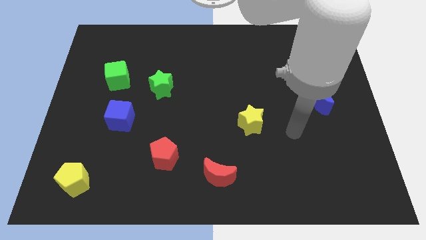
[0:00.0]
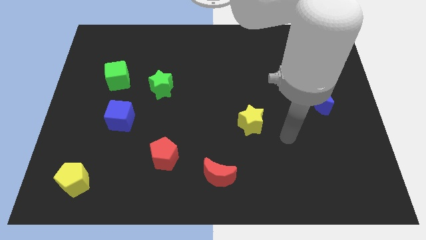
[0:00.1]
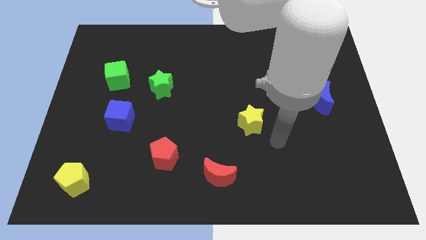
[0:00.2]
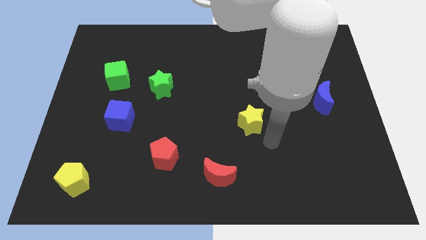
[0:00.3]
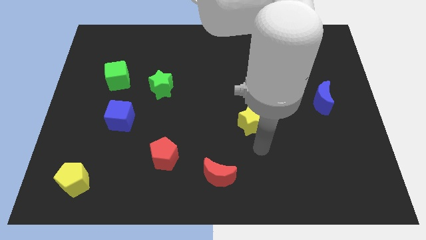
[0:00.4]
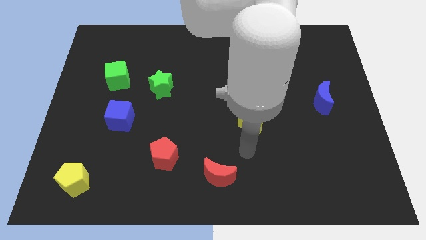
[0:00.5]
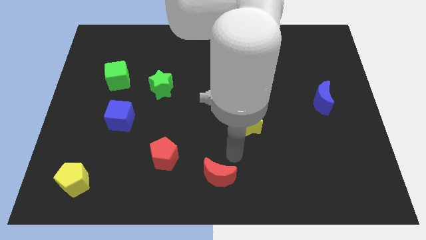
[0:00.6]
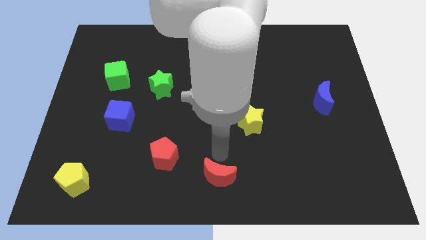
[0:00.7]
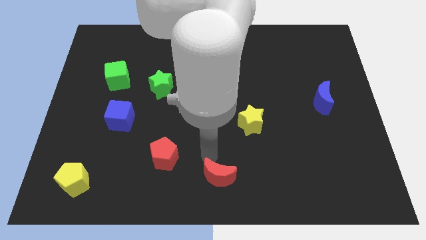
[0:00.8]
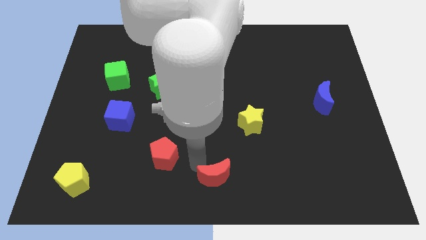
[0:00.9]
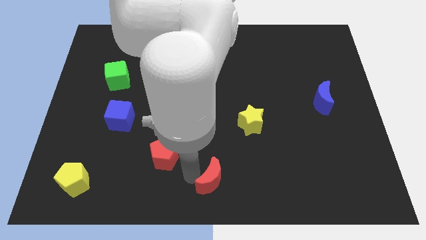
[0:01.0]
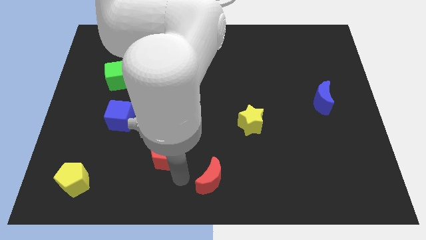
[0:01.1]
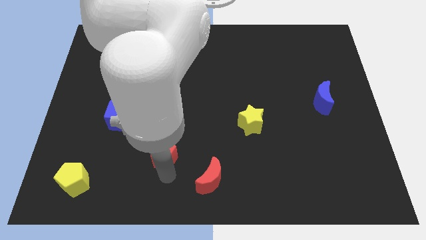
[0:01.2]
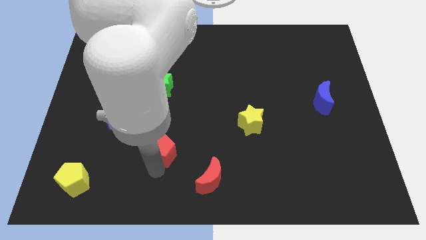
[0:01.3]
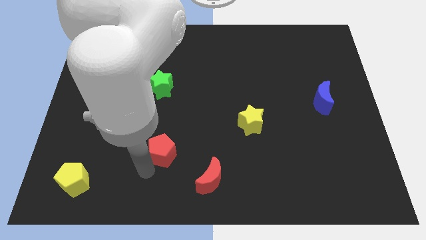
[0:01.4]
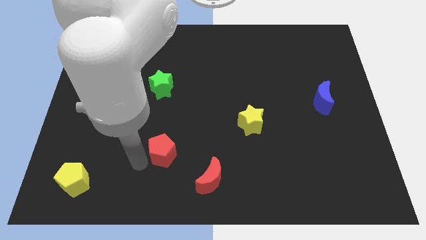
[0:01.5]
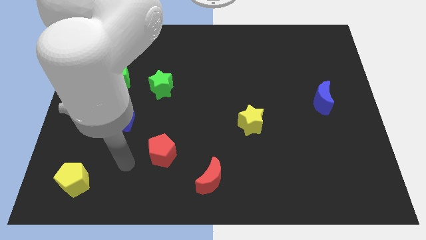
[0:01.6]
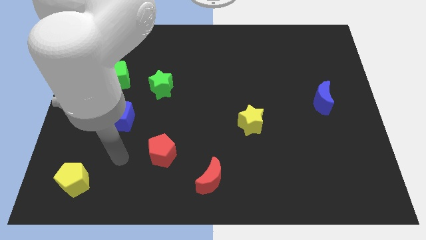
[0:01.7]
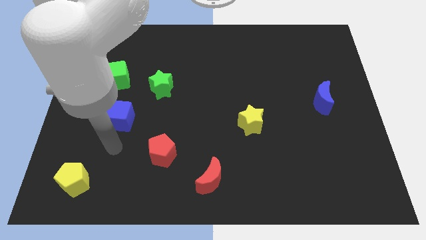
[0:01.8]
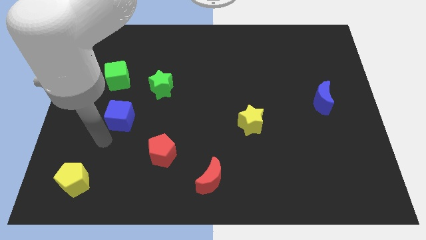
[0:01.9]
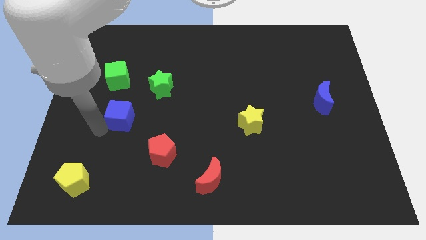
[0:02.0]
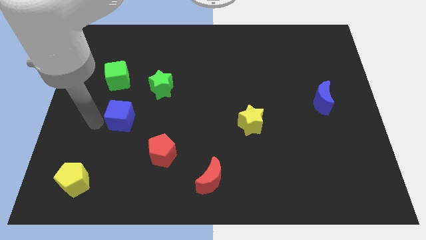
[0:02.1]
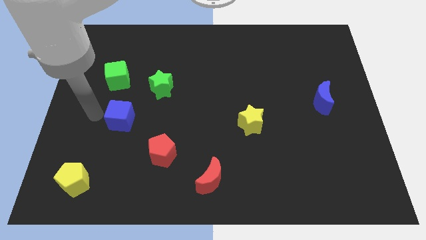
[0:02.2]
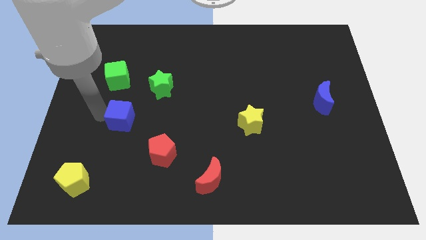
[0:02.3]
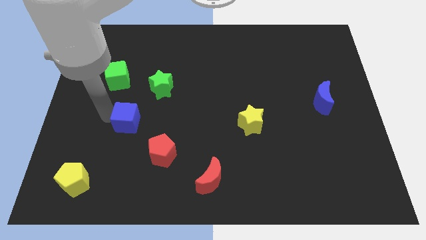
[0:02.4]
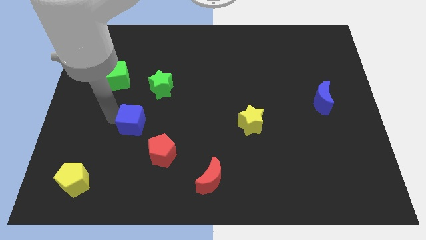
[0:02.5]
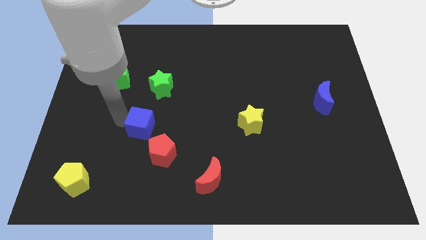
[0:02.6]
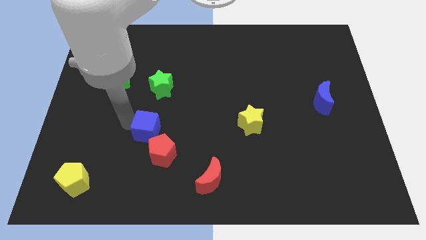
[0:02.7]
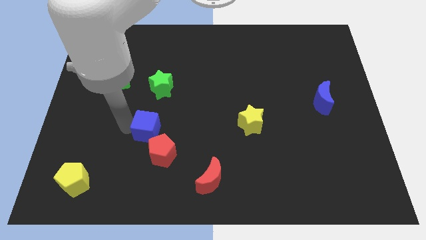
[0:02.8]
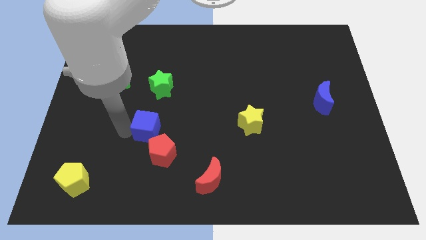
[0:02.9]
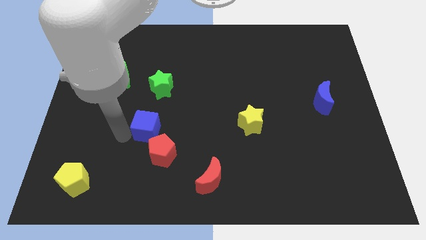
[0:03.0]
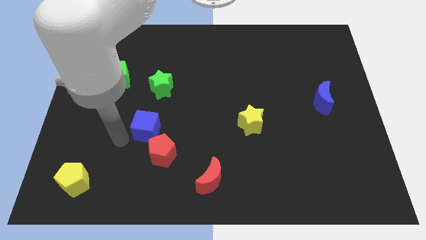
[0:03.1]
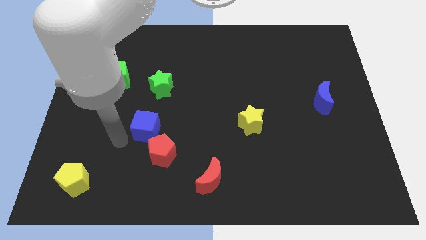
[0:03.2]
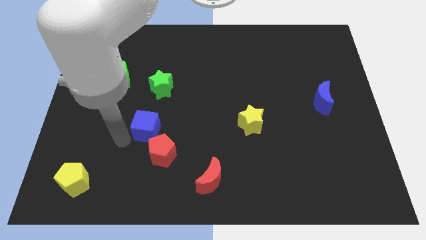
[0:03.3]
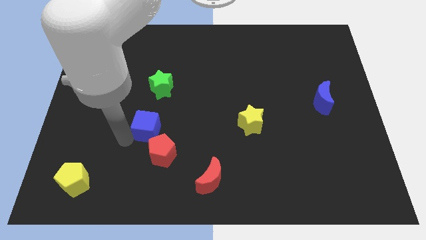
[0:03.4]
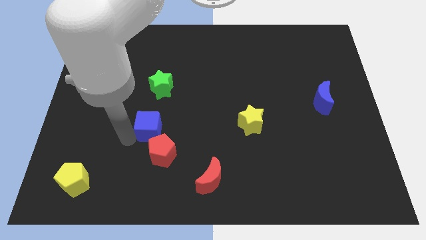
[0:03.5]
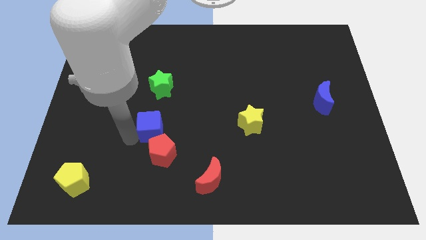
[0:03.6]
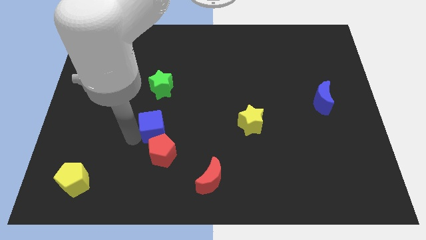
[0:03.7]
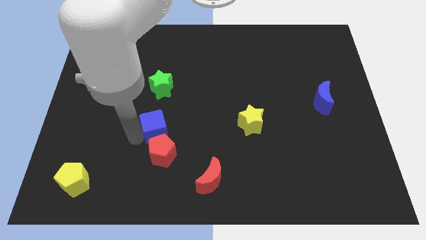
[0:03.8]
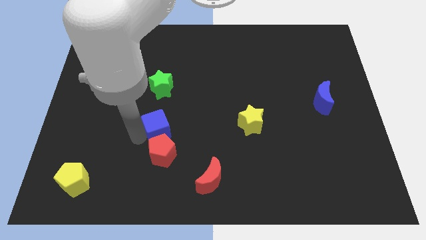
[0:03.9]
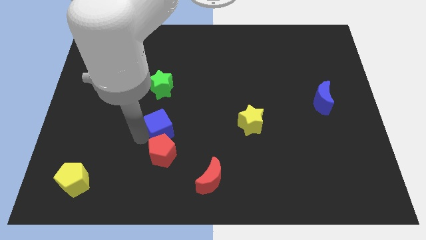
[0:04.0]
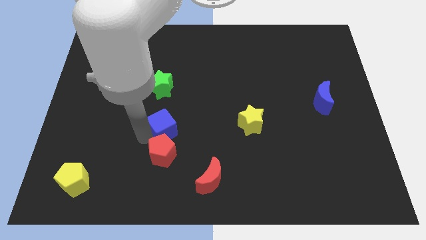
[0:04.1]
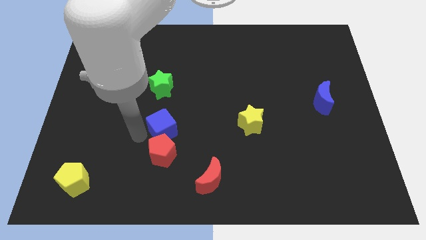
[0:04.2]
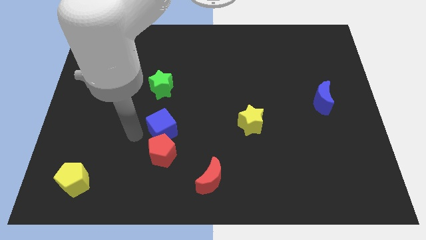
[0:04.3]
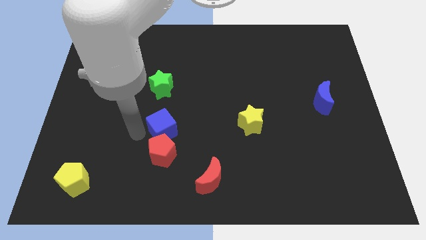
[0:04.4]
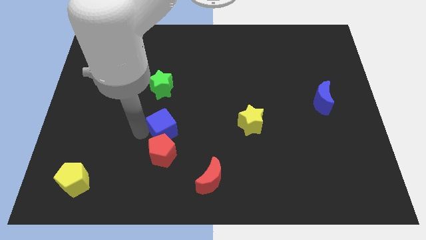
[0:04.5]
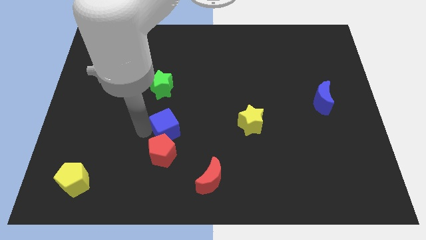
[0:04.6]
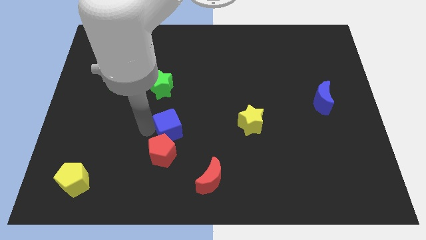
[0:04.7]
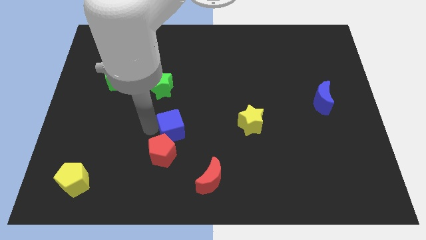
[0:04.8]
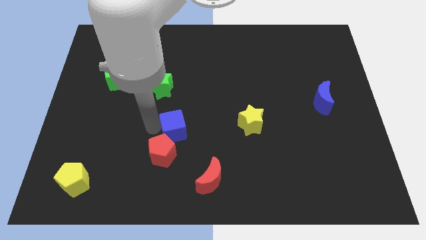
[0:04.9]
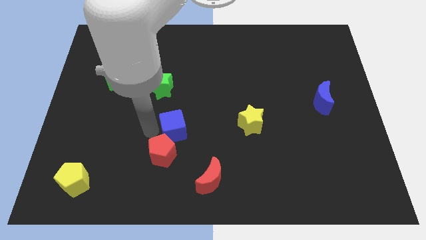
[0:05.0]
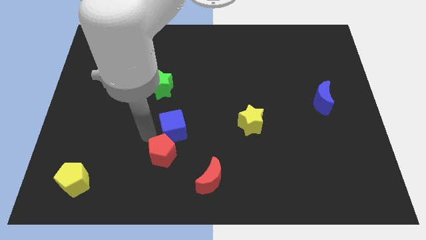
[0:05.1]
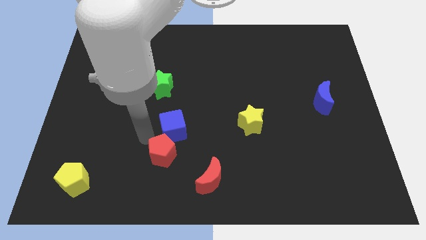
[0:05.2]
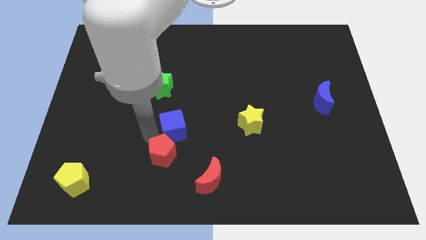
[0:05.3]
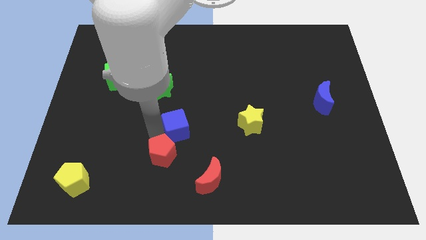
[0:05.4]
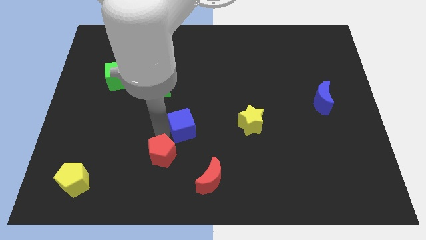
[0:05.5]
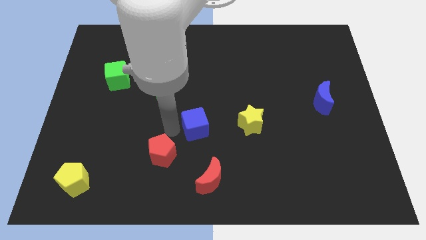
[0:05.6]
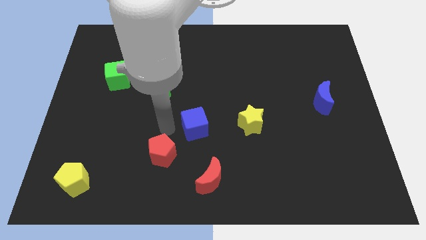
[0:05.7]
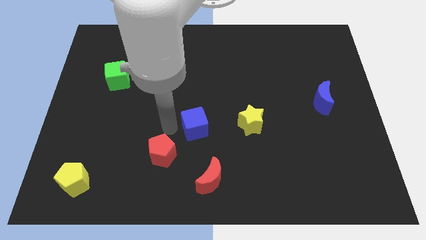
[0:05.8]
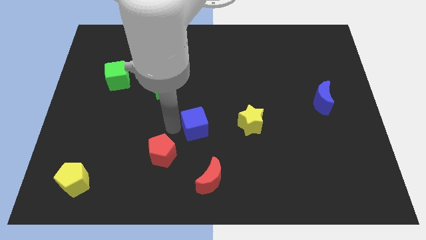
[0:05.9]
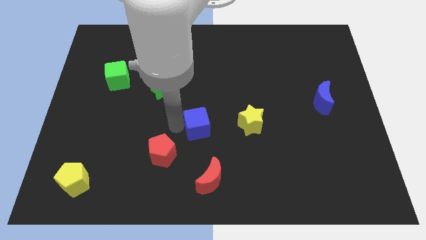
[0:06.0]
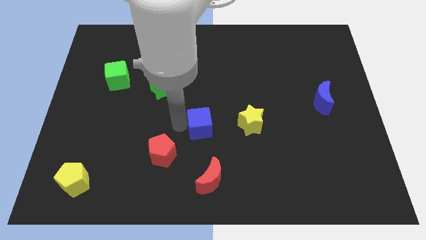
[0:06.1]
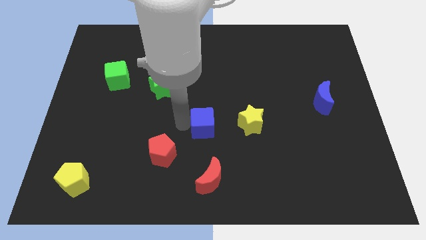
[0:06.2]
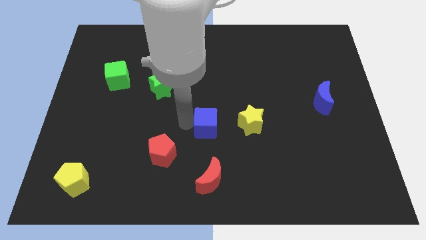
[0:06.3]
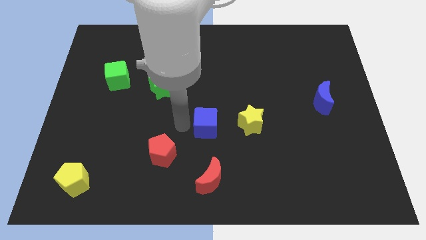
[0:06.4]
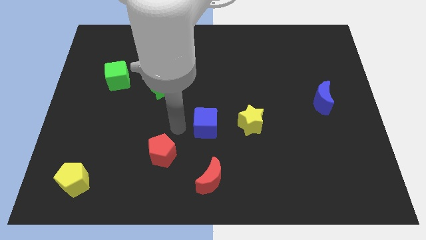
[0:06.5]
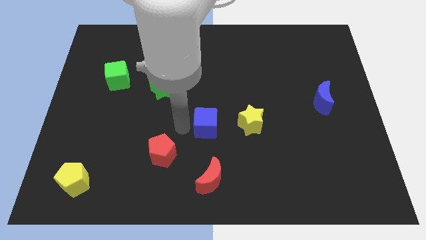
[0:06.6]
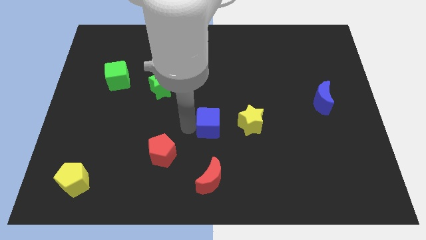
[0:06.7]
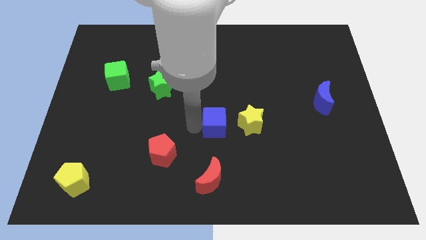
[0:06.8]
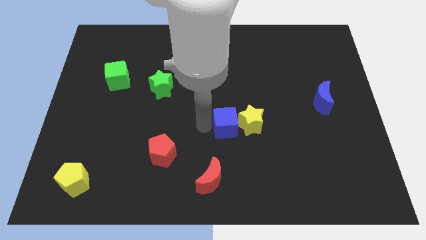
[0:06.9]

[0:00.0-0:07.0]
push the blue cube towards the yellow star

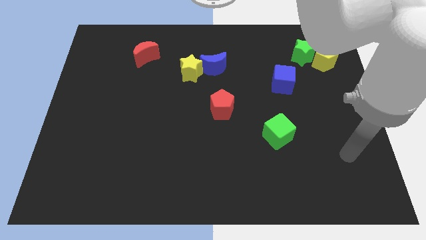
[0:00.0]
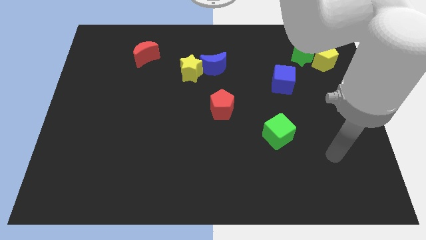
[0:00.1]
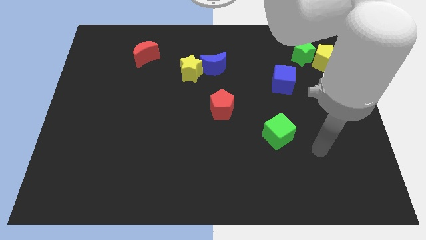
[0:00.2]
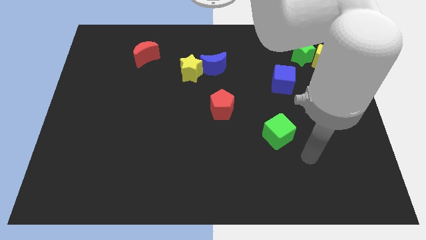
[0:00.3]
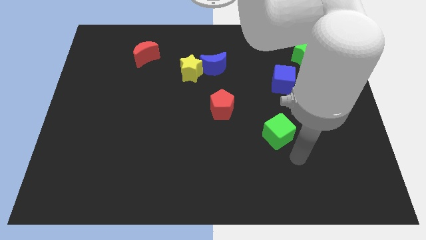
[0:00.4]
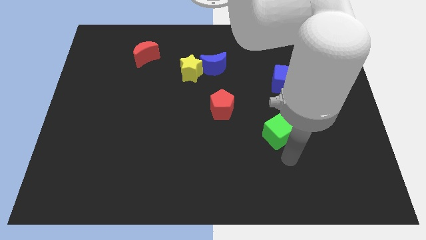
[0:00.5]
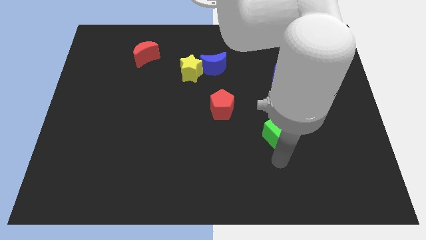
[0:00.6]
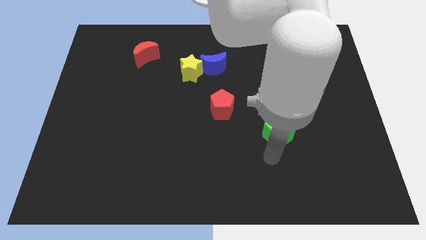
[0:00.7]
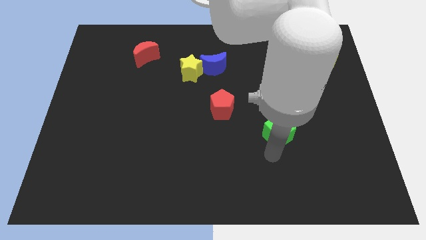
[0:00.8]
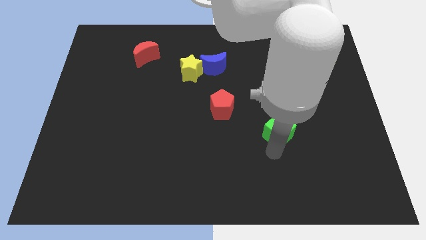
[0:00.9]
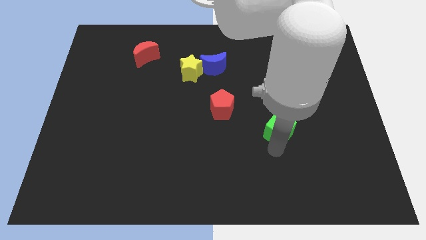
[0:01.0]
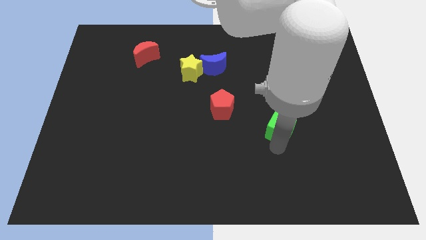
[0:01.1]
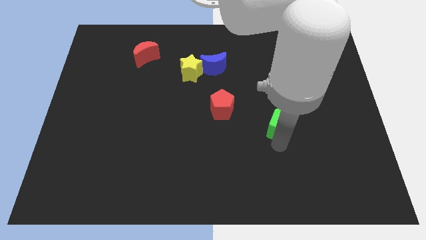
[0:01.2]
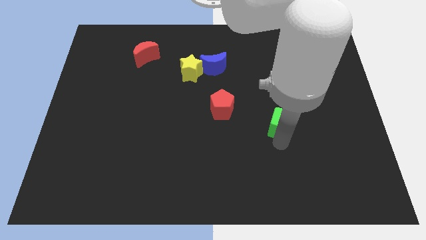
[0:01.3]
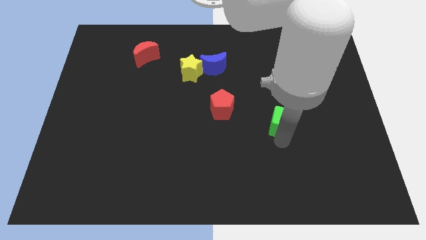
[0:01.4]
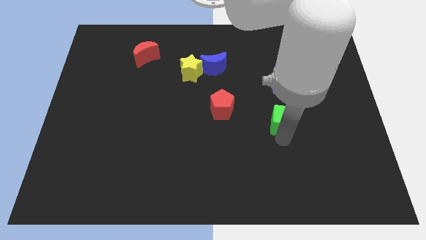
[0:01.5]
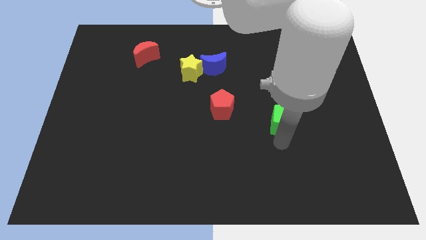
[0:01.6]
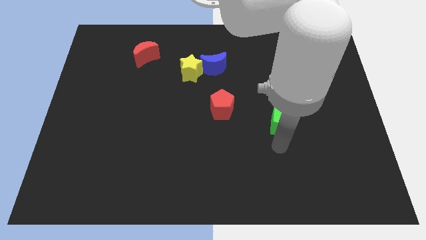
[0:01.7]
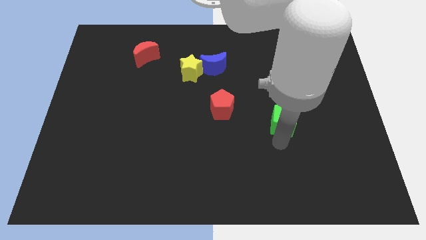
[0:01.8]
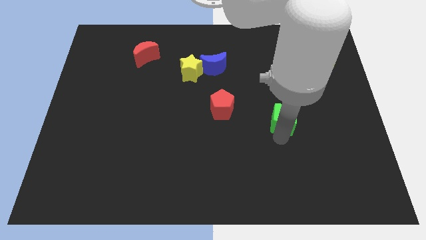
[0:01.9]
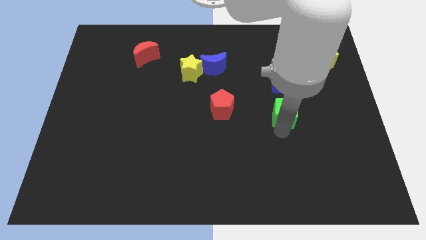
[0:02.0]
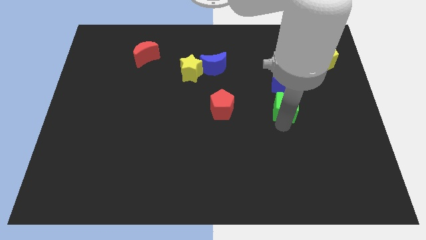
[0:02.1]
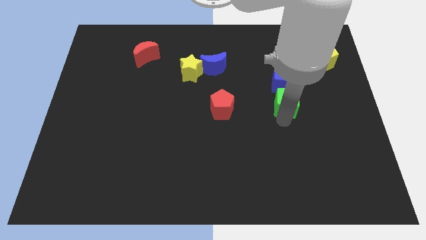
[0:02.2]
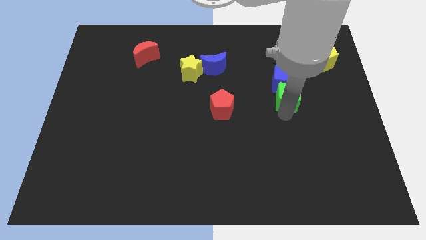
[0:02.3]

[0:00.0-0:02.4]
put the green cube towards the blue cube
